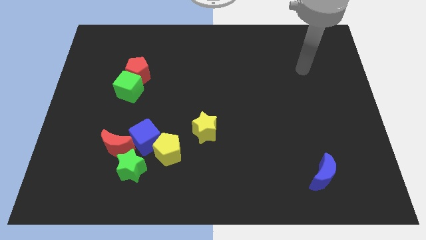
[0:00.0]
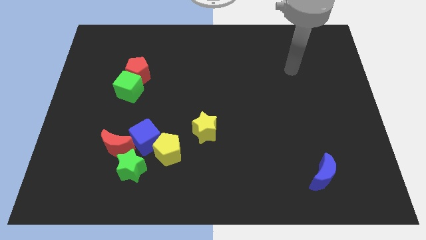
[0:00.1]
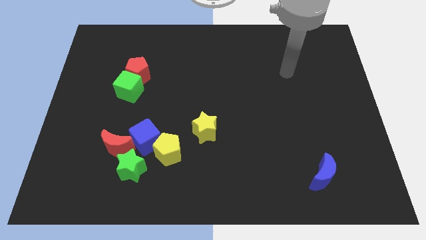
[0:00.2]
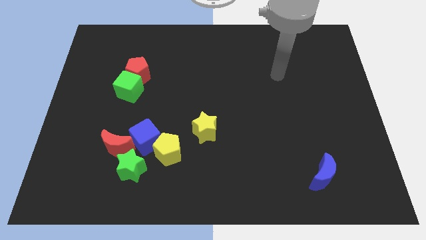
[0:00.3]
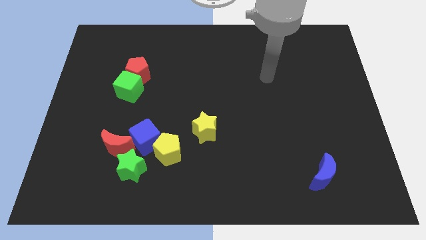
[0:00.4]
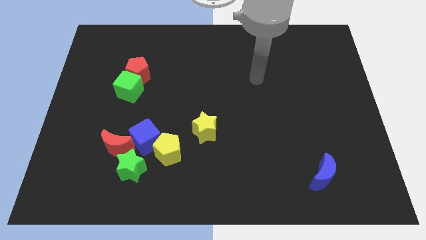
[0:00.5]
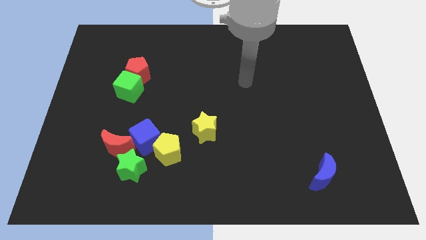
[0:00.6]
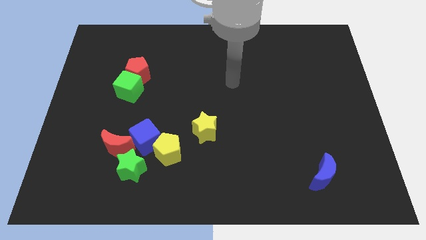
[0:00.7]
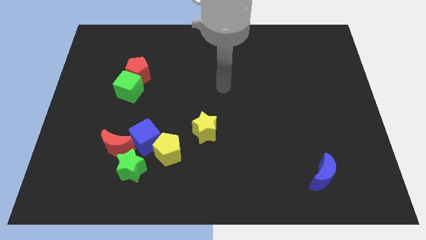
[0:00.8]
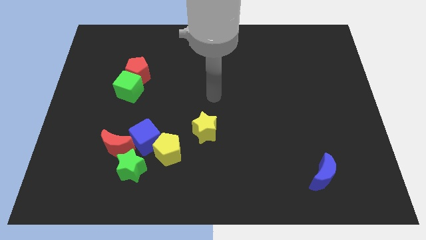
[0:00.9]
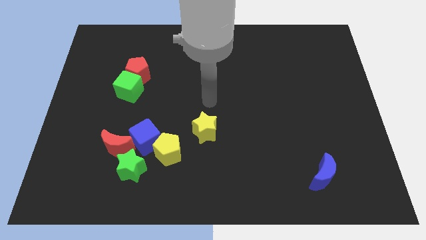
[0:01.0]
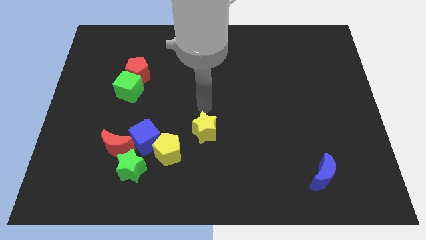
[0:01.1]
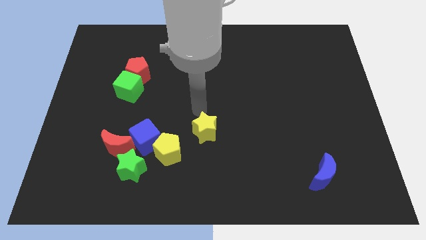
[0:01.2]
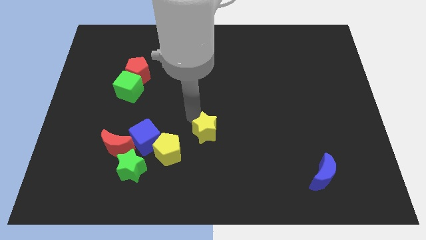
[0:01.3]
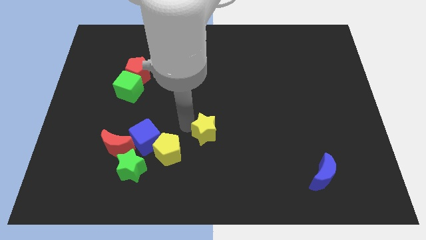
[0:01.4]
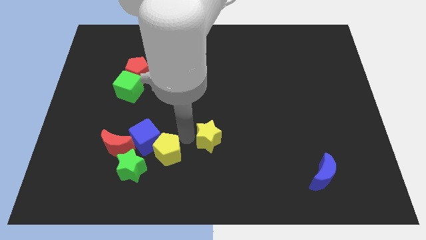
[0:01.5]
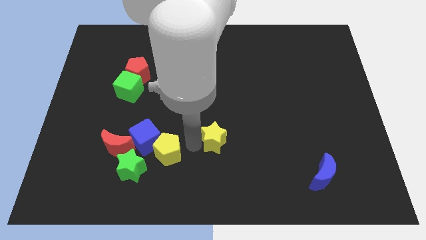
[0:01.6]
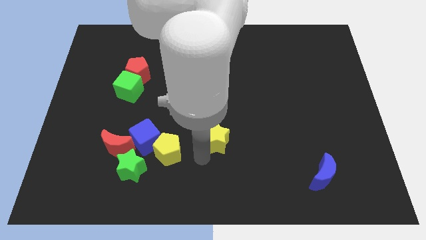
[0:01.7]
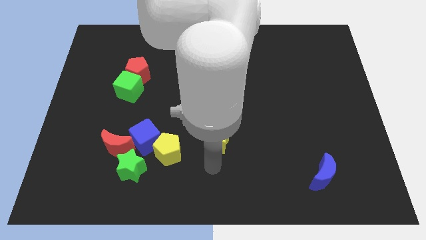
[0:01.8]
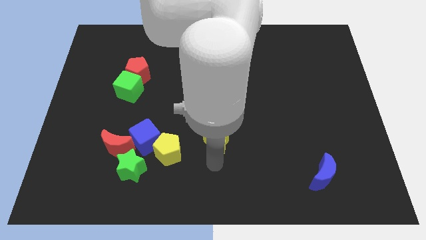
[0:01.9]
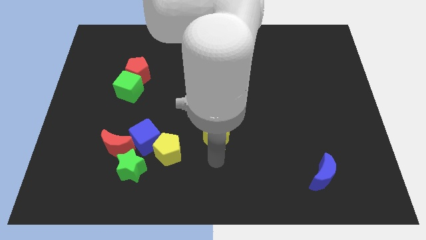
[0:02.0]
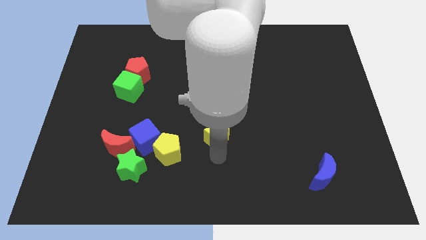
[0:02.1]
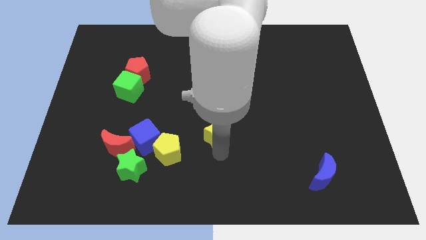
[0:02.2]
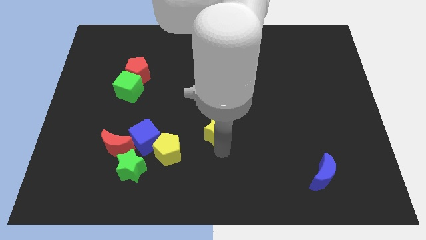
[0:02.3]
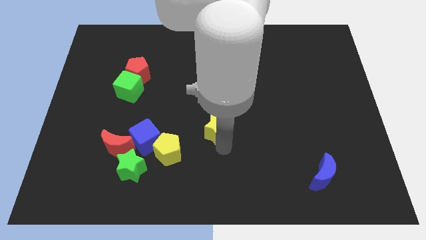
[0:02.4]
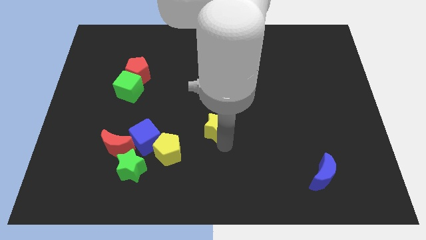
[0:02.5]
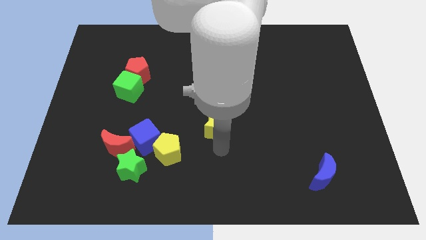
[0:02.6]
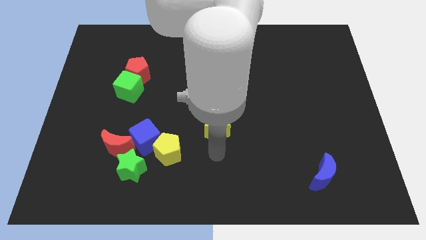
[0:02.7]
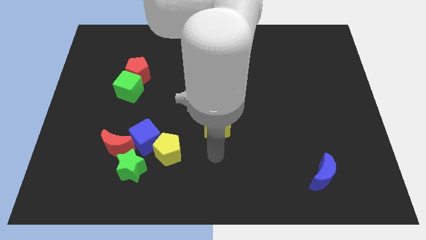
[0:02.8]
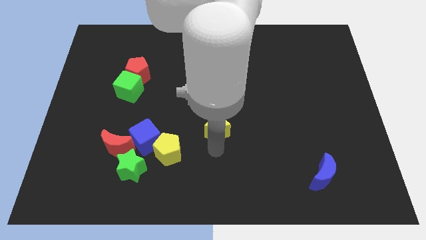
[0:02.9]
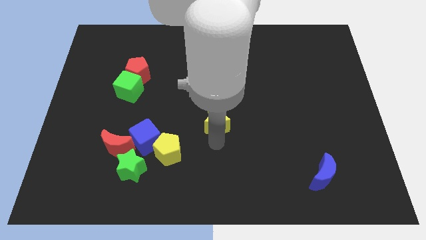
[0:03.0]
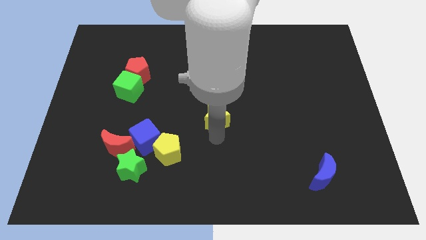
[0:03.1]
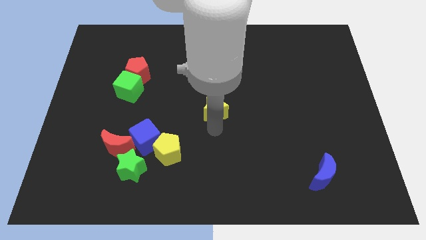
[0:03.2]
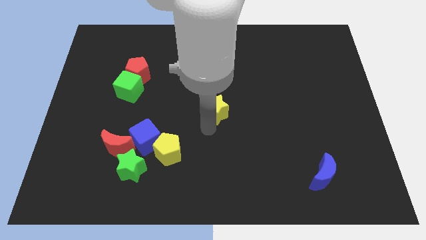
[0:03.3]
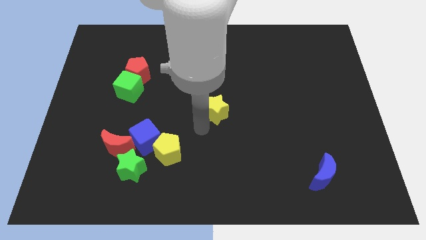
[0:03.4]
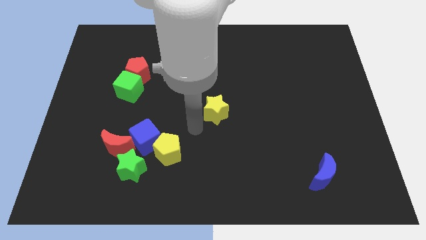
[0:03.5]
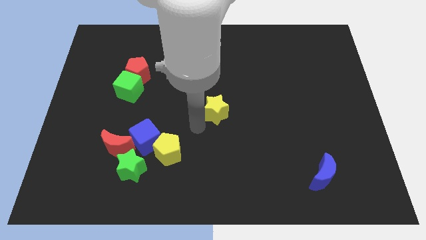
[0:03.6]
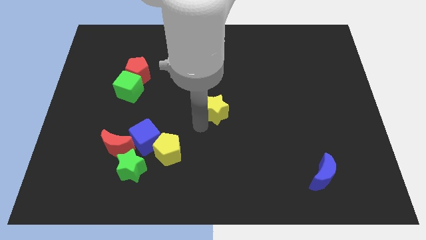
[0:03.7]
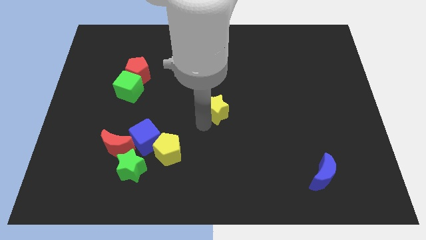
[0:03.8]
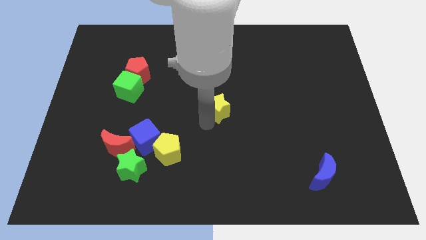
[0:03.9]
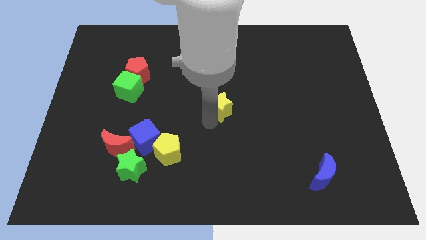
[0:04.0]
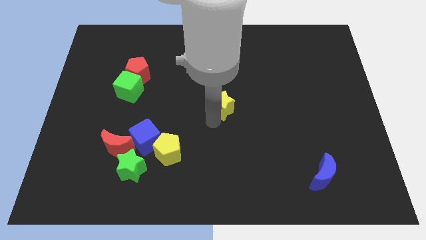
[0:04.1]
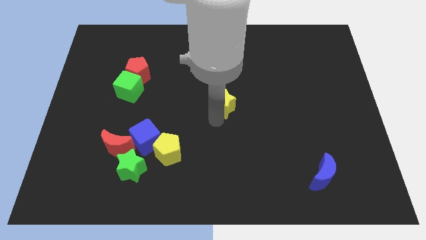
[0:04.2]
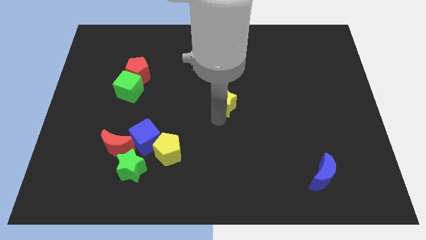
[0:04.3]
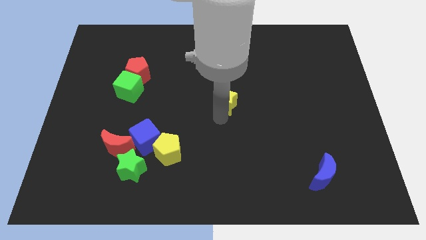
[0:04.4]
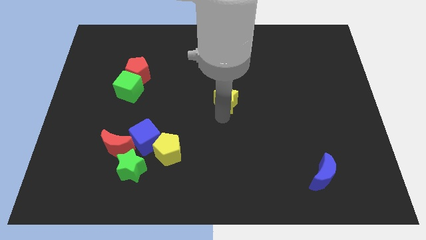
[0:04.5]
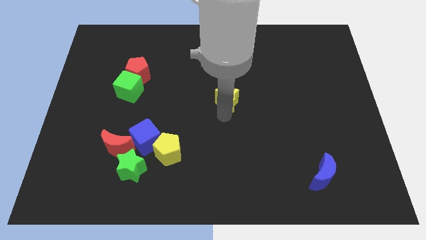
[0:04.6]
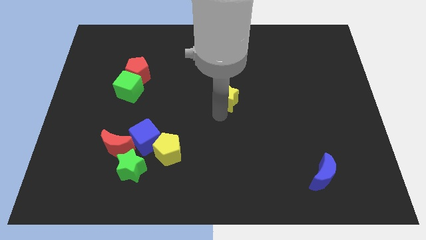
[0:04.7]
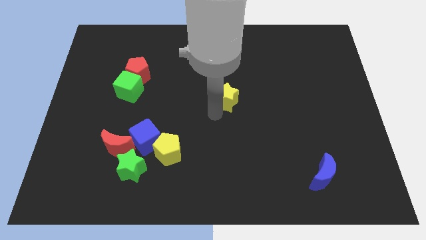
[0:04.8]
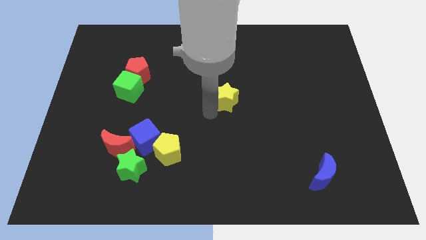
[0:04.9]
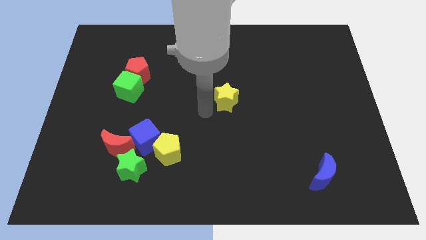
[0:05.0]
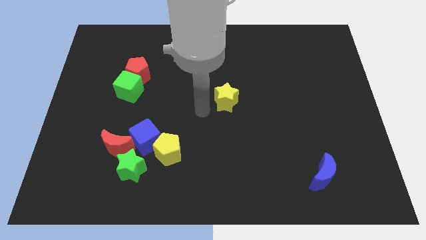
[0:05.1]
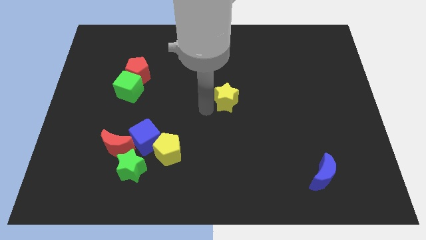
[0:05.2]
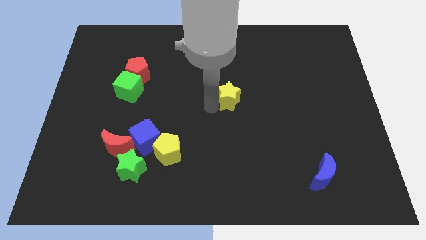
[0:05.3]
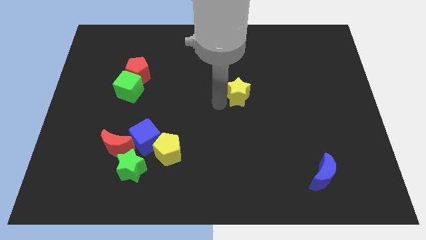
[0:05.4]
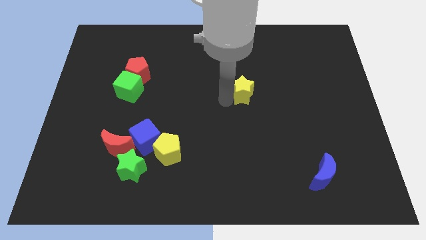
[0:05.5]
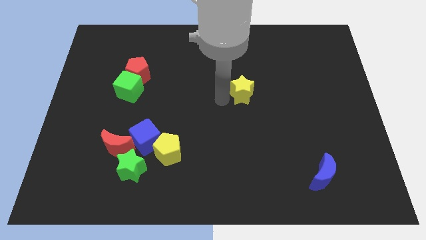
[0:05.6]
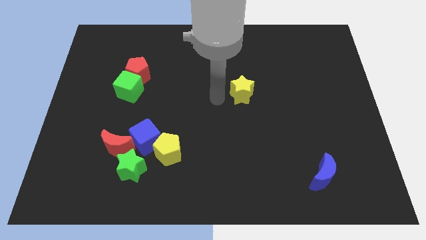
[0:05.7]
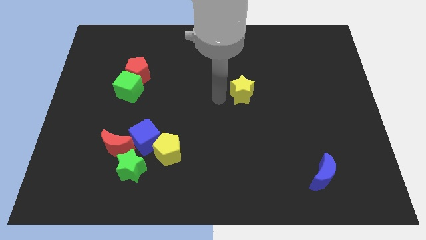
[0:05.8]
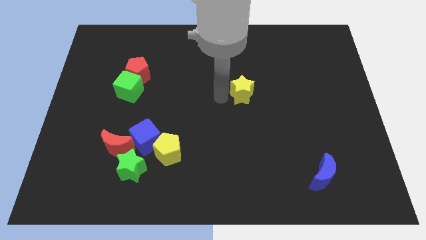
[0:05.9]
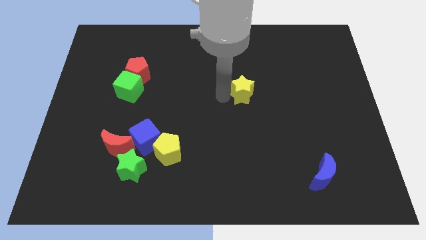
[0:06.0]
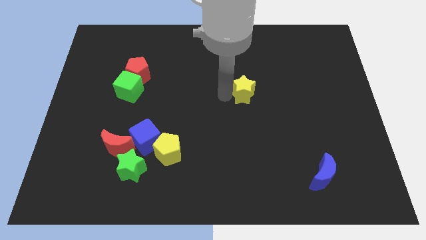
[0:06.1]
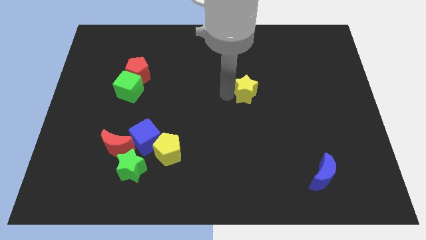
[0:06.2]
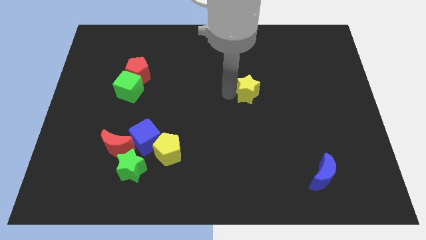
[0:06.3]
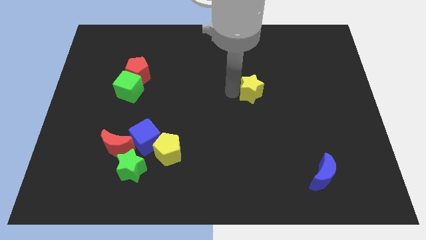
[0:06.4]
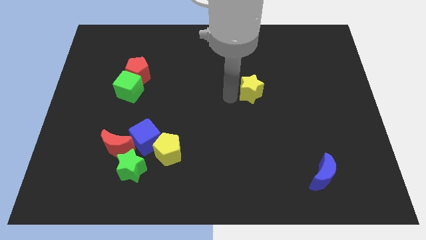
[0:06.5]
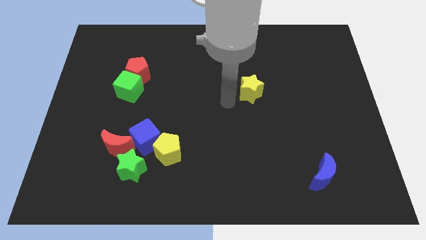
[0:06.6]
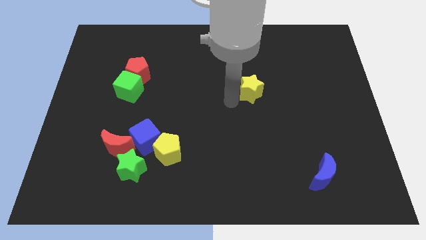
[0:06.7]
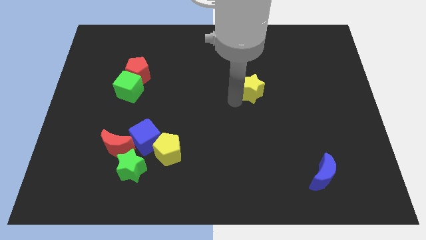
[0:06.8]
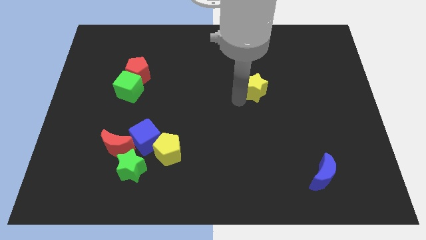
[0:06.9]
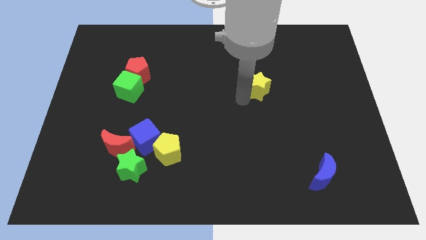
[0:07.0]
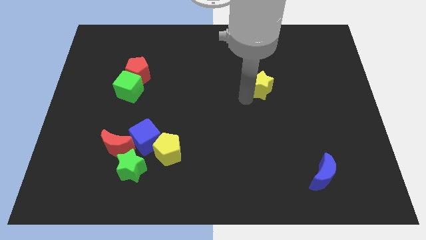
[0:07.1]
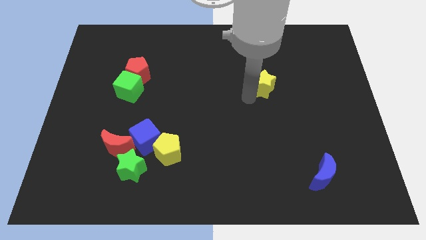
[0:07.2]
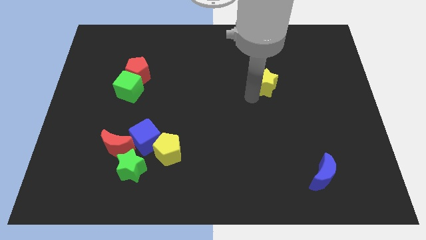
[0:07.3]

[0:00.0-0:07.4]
slide the yellow star up and to the right diagonally
